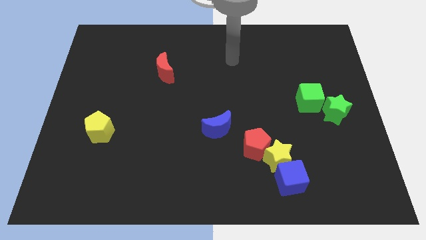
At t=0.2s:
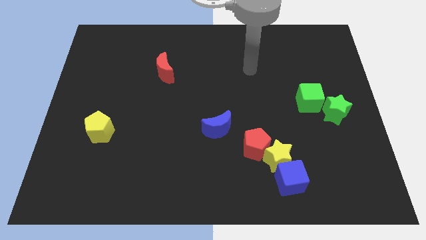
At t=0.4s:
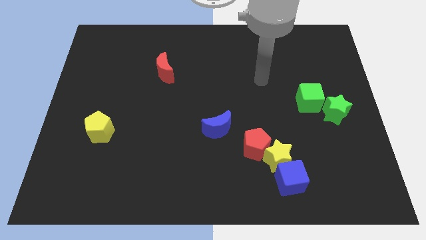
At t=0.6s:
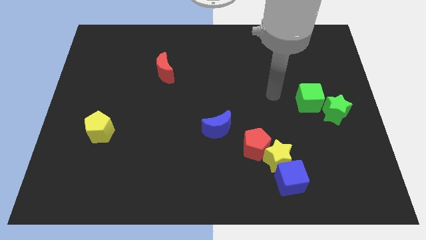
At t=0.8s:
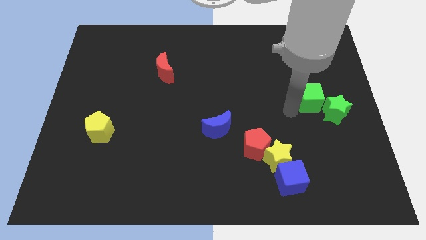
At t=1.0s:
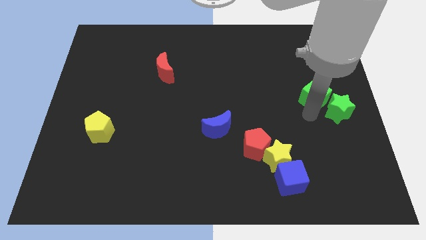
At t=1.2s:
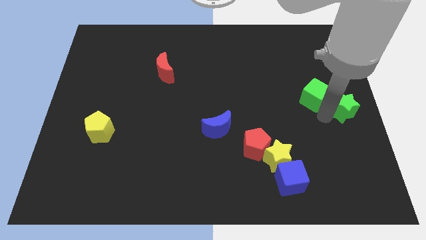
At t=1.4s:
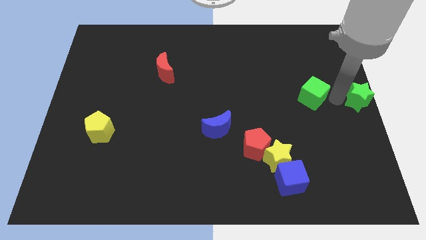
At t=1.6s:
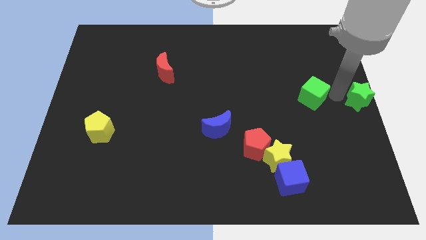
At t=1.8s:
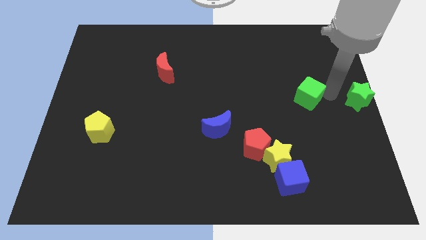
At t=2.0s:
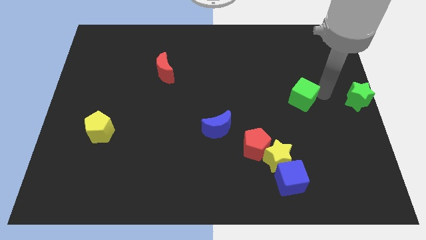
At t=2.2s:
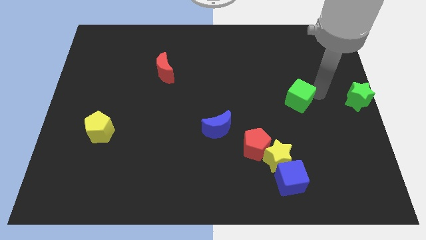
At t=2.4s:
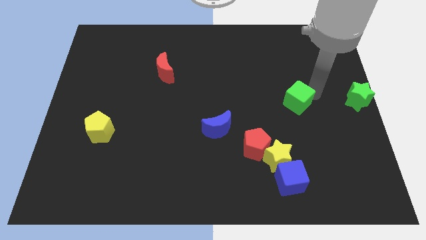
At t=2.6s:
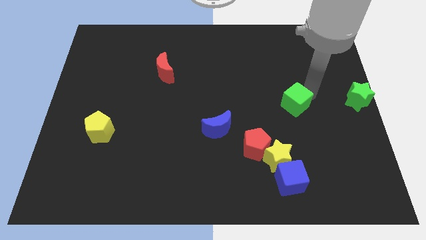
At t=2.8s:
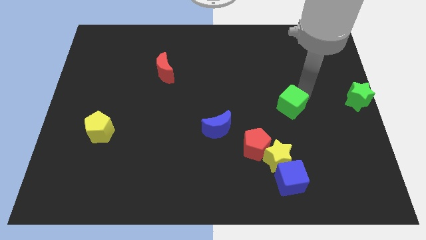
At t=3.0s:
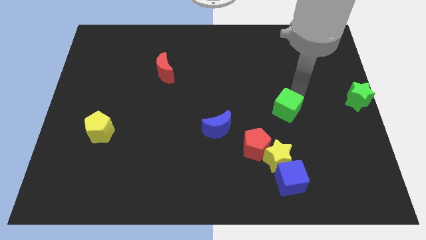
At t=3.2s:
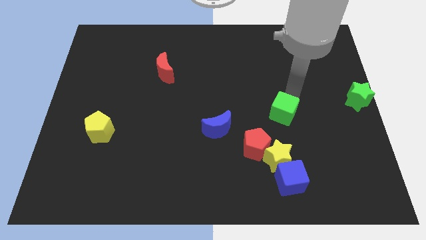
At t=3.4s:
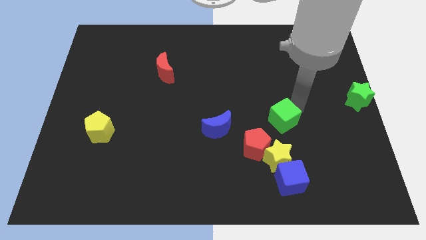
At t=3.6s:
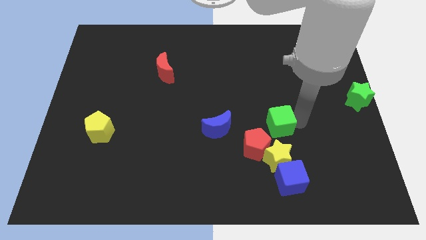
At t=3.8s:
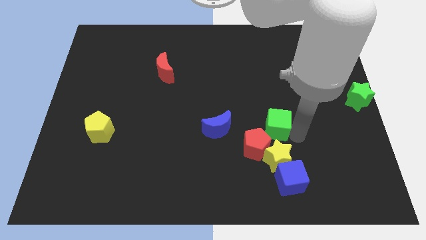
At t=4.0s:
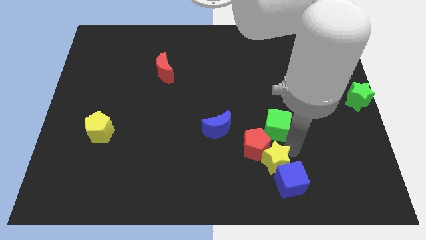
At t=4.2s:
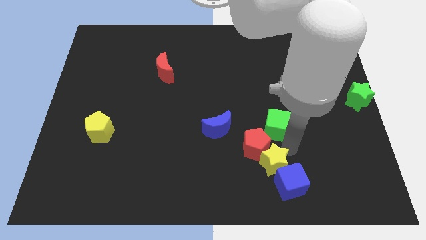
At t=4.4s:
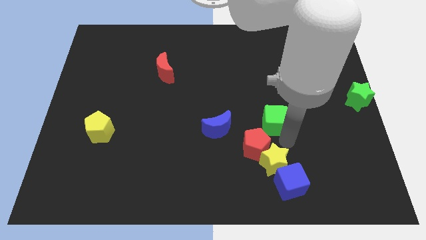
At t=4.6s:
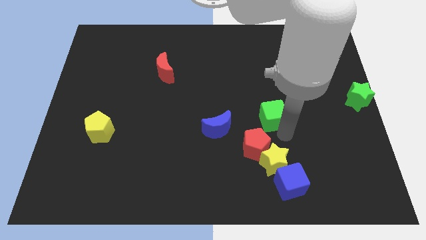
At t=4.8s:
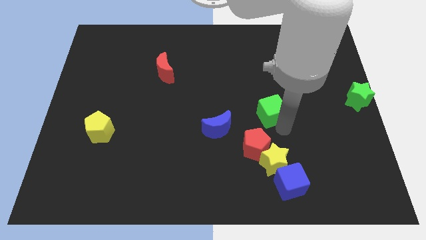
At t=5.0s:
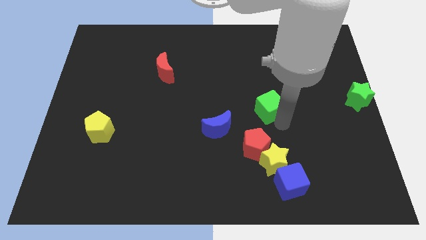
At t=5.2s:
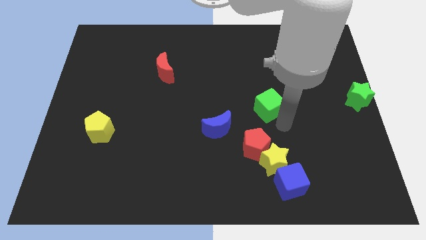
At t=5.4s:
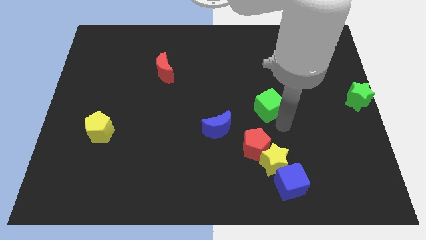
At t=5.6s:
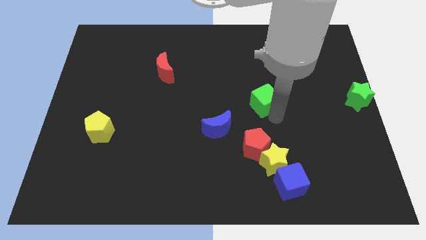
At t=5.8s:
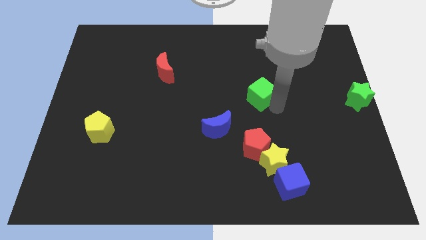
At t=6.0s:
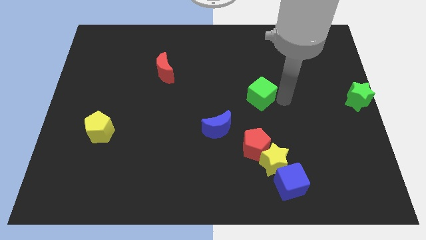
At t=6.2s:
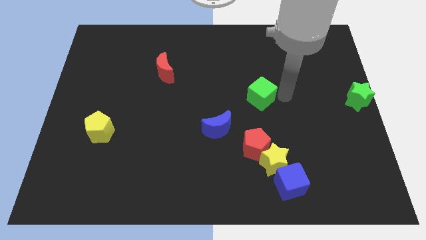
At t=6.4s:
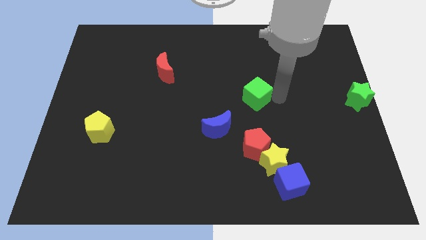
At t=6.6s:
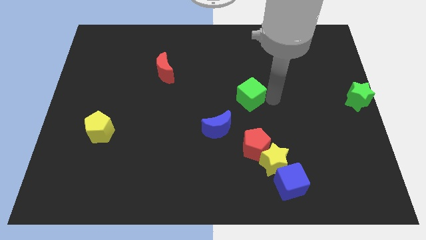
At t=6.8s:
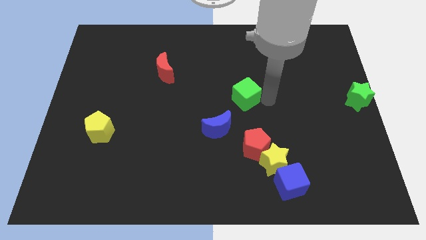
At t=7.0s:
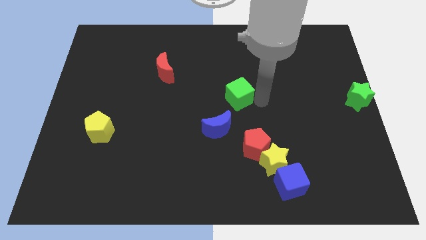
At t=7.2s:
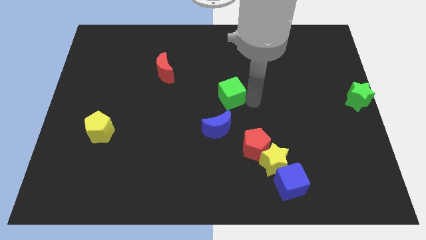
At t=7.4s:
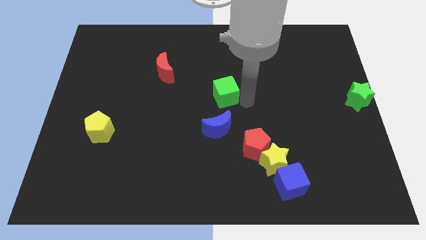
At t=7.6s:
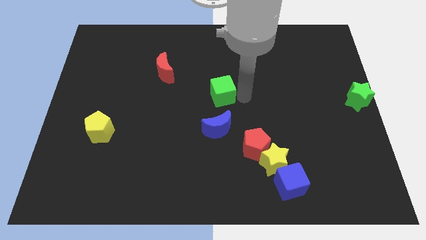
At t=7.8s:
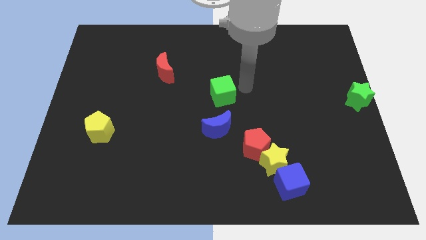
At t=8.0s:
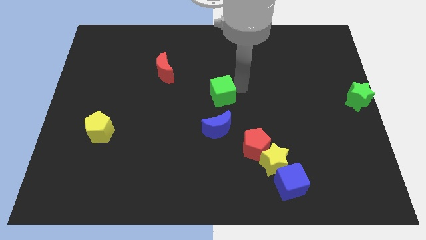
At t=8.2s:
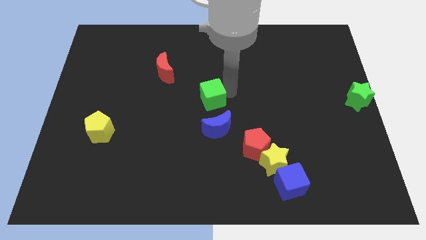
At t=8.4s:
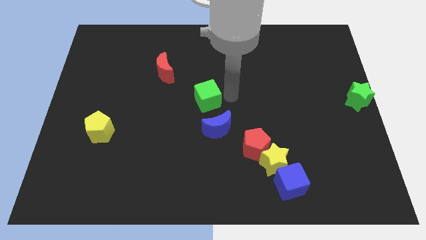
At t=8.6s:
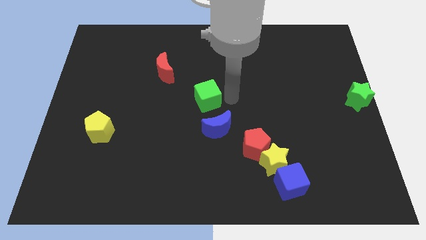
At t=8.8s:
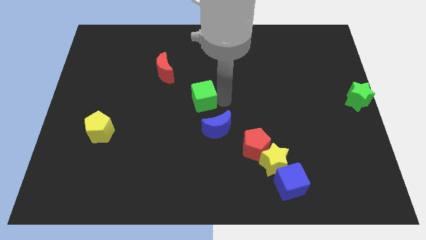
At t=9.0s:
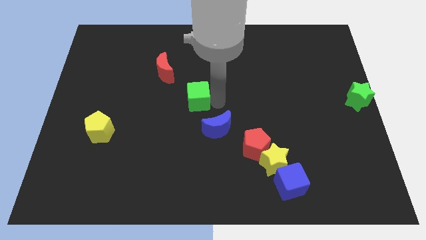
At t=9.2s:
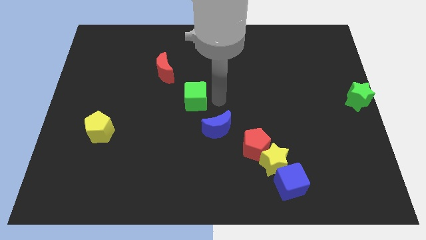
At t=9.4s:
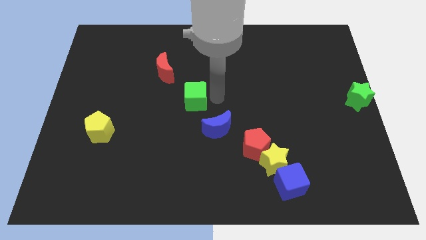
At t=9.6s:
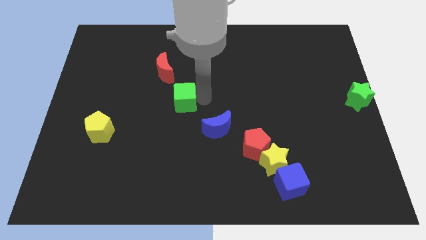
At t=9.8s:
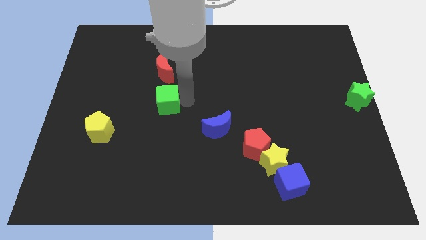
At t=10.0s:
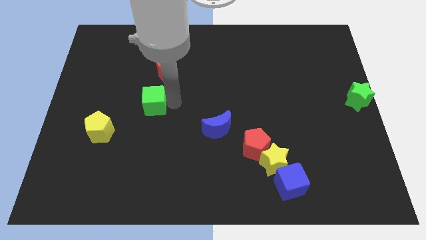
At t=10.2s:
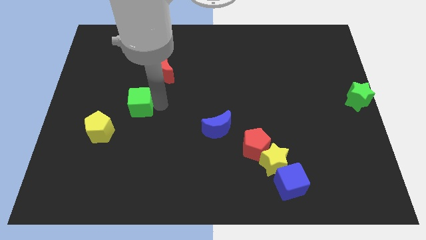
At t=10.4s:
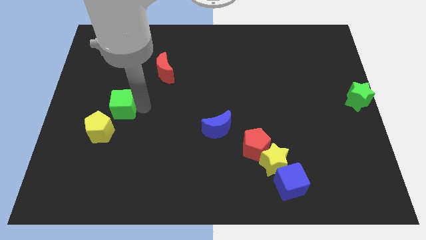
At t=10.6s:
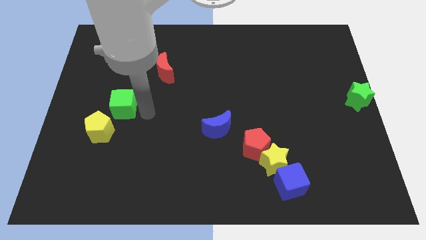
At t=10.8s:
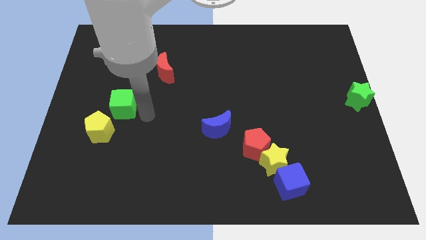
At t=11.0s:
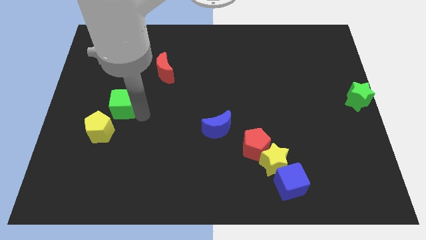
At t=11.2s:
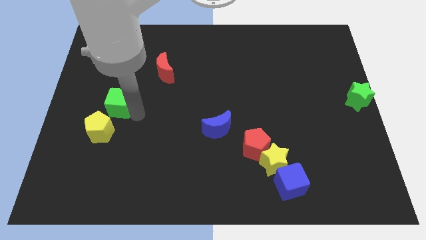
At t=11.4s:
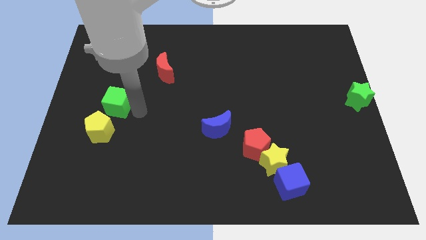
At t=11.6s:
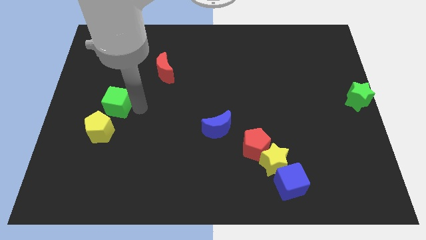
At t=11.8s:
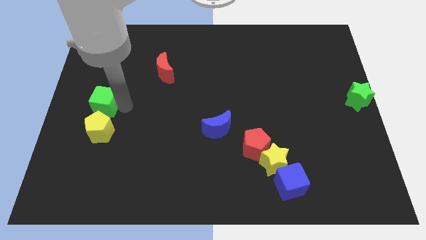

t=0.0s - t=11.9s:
put the green cube to the center left

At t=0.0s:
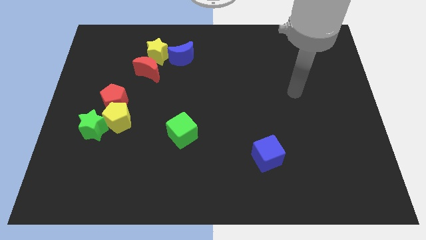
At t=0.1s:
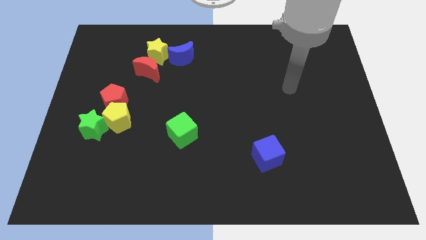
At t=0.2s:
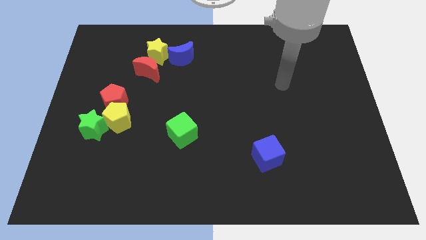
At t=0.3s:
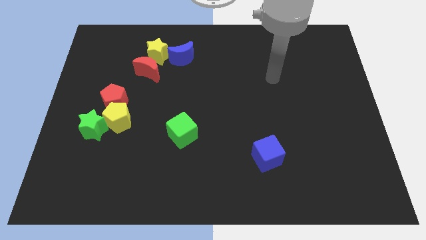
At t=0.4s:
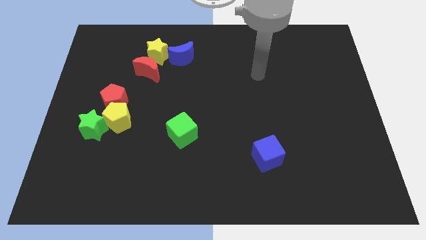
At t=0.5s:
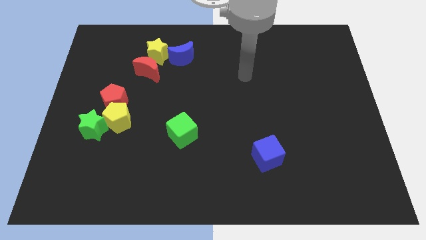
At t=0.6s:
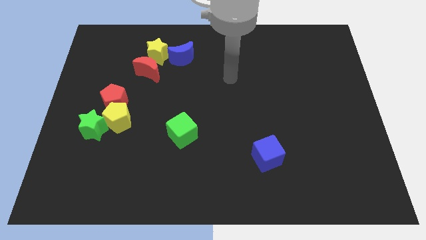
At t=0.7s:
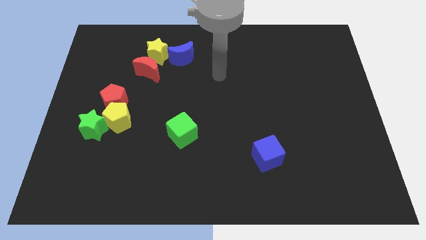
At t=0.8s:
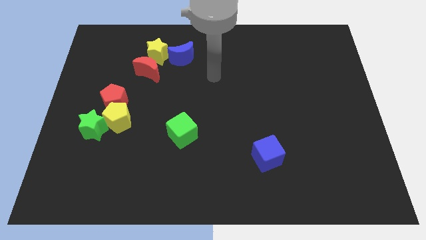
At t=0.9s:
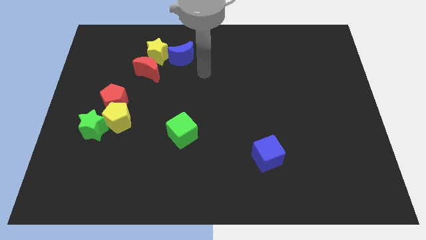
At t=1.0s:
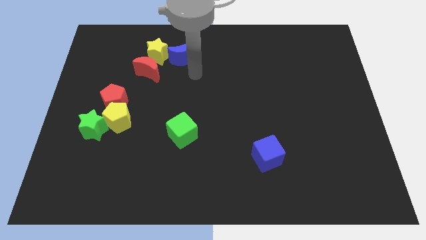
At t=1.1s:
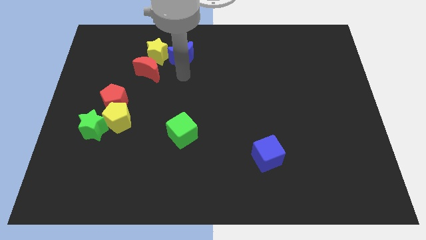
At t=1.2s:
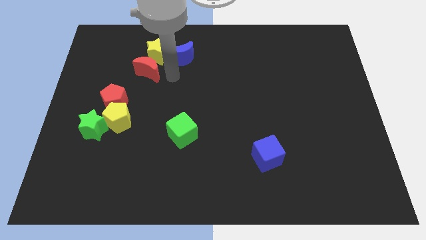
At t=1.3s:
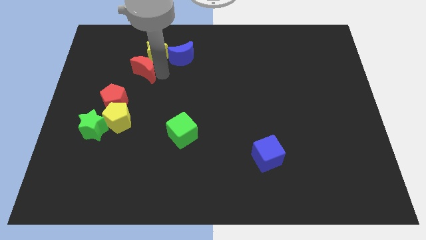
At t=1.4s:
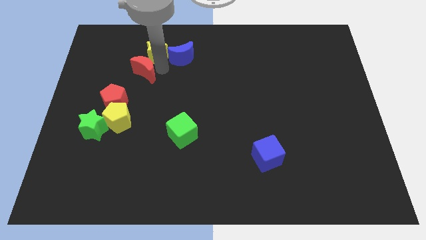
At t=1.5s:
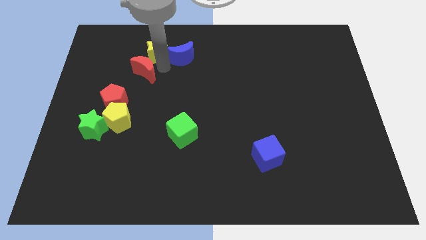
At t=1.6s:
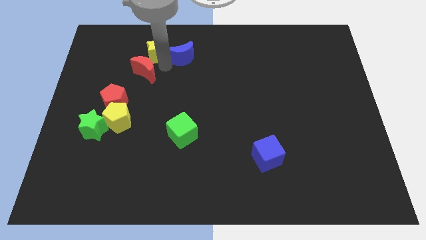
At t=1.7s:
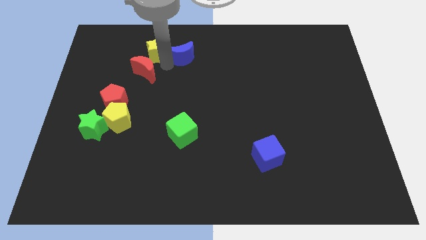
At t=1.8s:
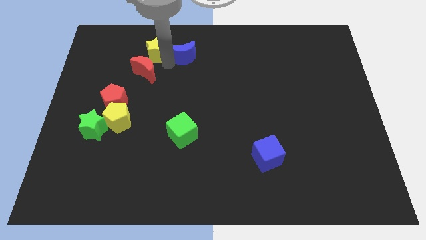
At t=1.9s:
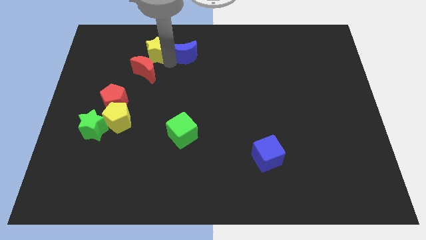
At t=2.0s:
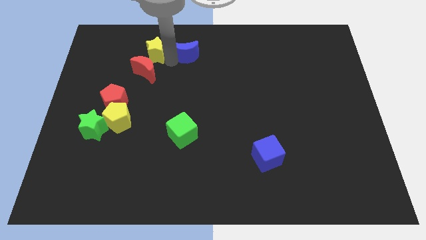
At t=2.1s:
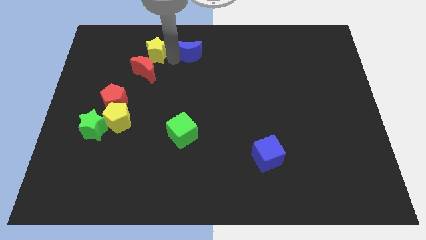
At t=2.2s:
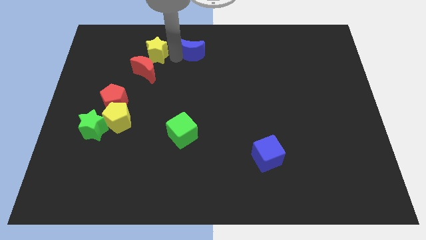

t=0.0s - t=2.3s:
put the blue moon to the top
